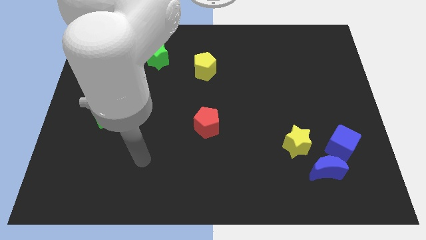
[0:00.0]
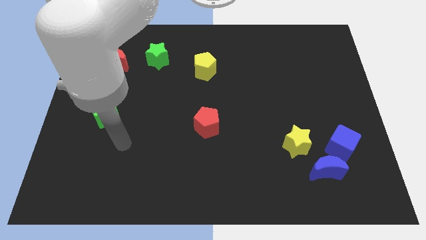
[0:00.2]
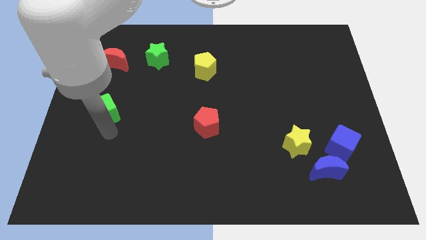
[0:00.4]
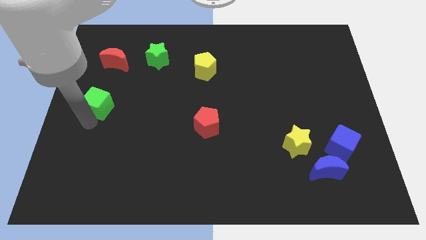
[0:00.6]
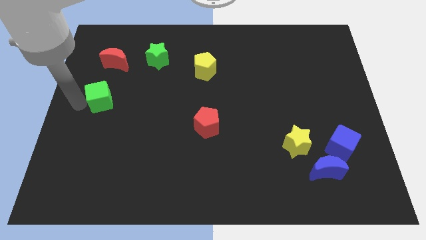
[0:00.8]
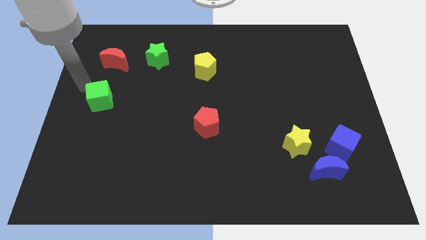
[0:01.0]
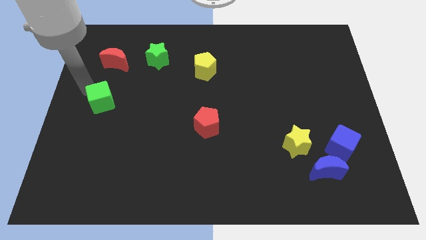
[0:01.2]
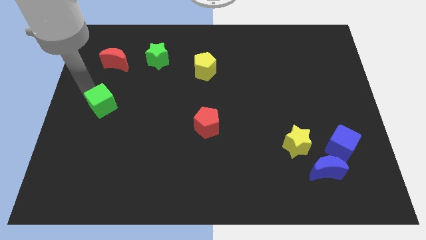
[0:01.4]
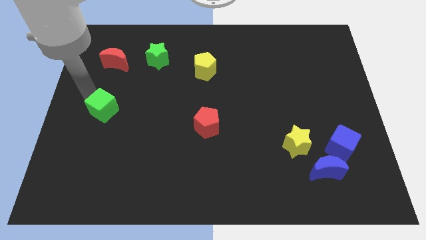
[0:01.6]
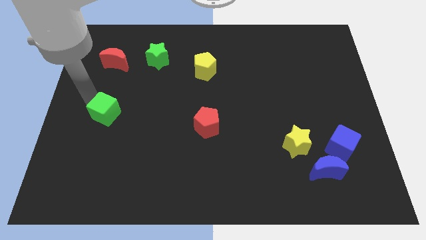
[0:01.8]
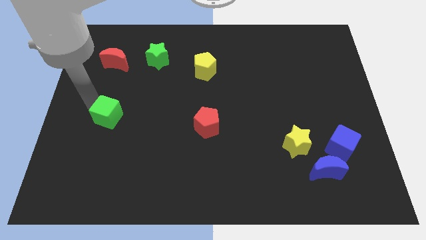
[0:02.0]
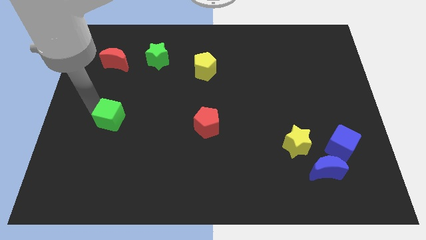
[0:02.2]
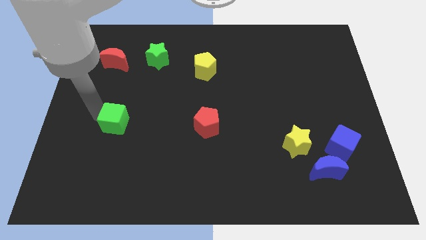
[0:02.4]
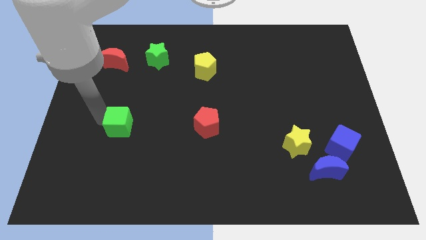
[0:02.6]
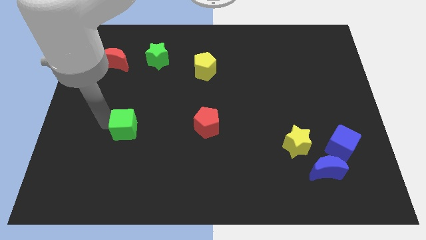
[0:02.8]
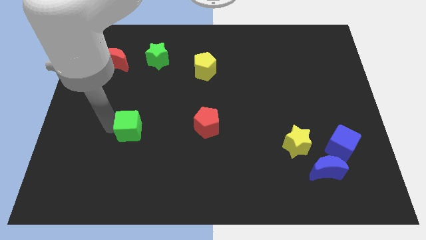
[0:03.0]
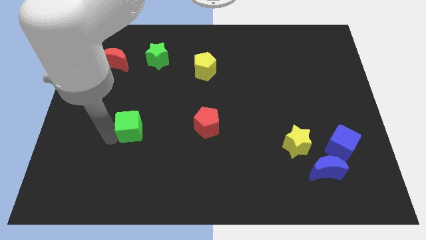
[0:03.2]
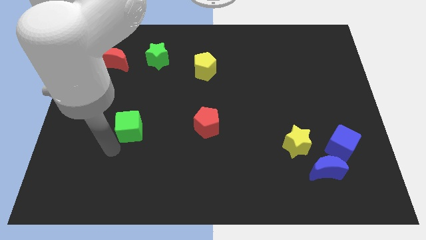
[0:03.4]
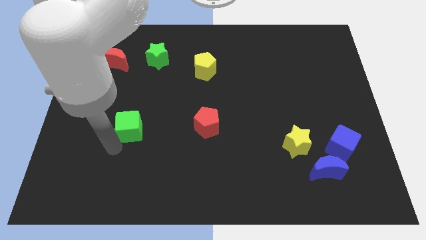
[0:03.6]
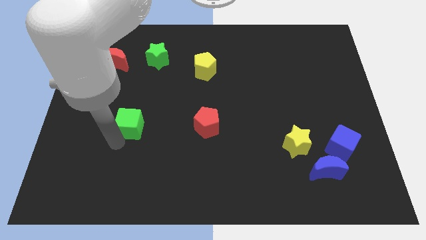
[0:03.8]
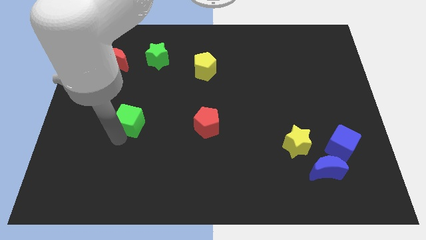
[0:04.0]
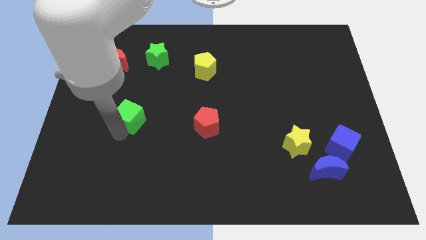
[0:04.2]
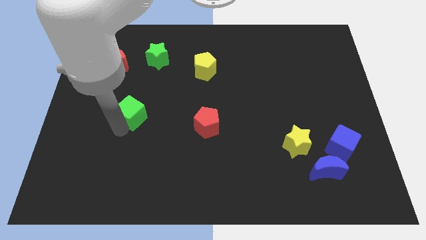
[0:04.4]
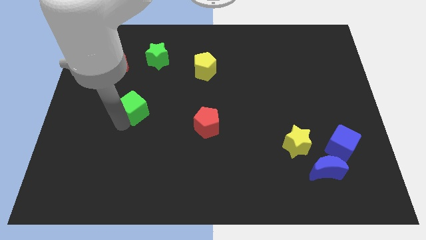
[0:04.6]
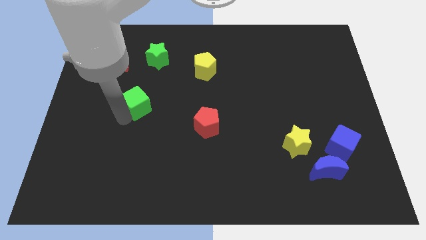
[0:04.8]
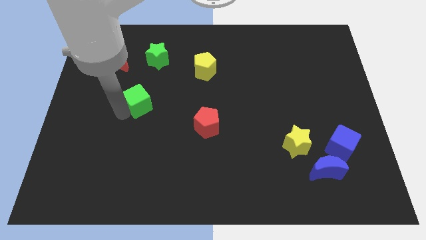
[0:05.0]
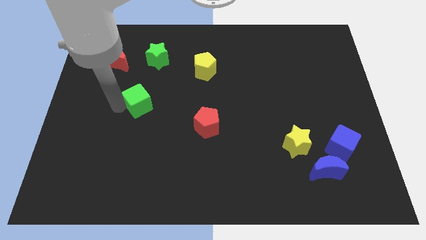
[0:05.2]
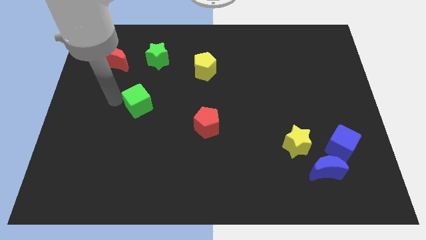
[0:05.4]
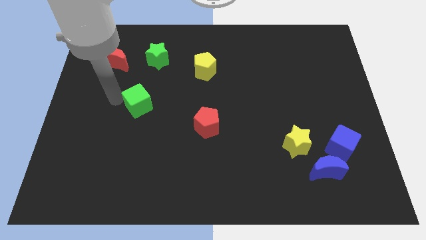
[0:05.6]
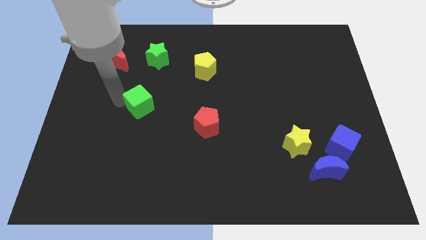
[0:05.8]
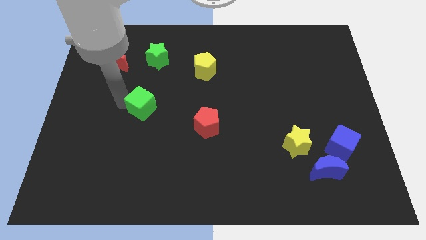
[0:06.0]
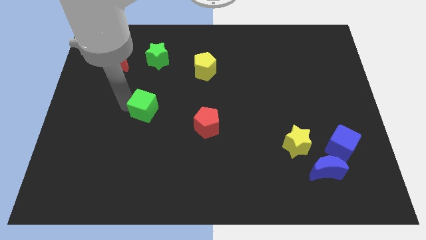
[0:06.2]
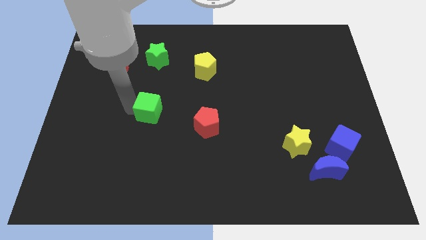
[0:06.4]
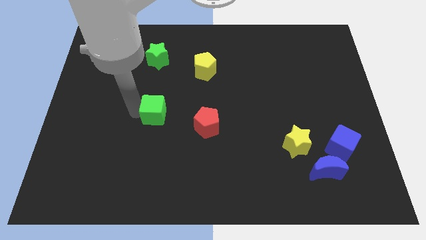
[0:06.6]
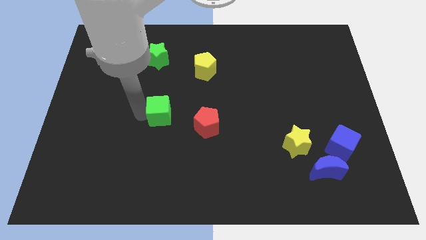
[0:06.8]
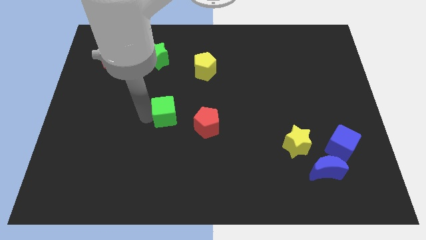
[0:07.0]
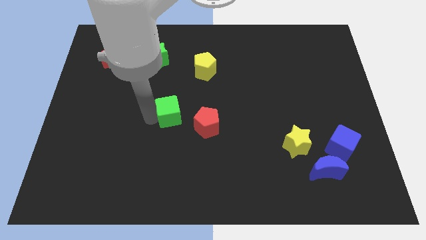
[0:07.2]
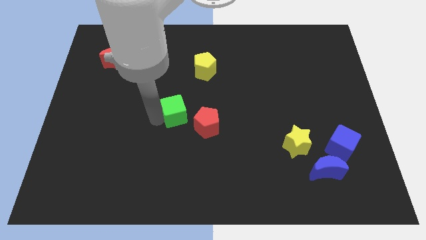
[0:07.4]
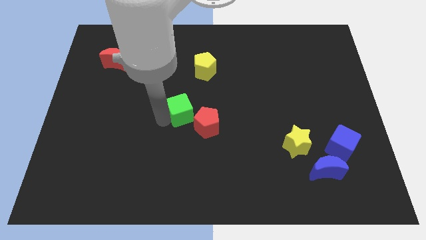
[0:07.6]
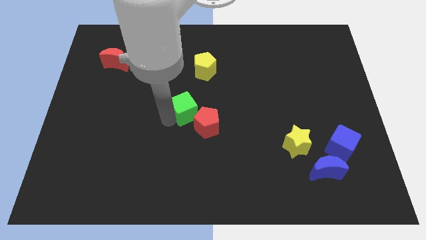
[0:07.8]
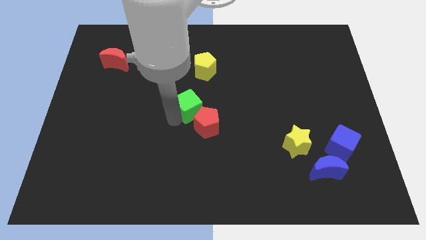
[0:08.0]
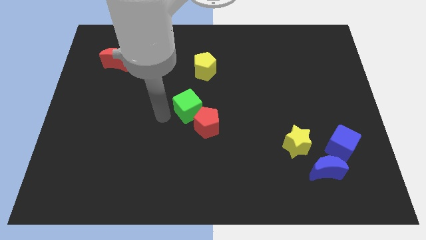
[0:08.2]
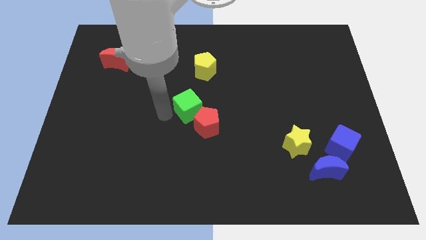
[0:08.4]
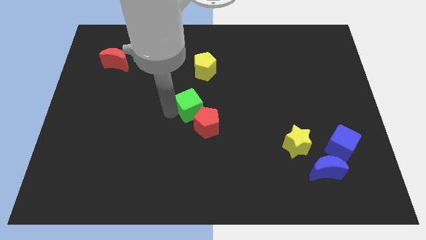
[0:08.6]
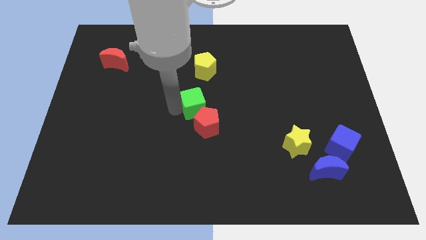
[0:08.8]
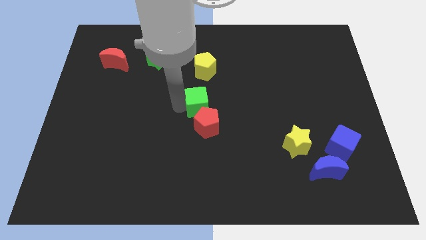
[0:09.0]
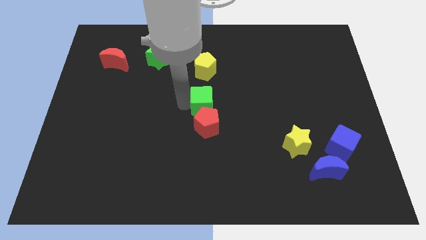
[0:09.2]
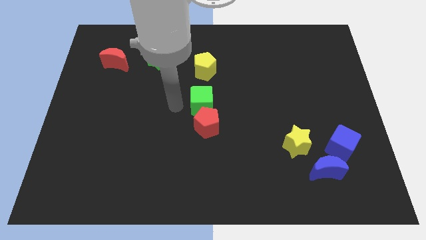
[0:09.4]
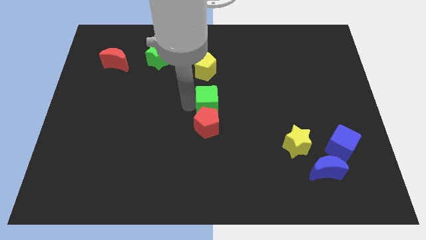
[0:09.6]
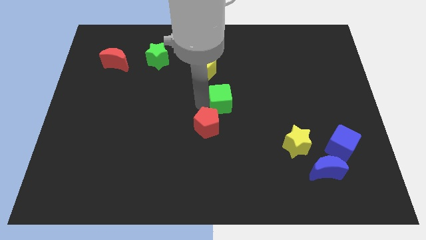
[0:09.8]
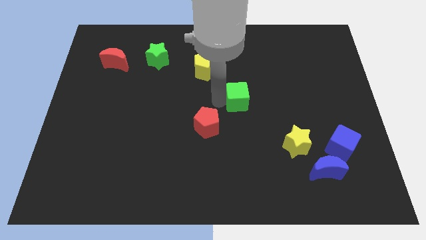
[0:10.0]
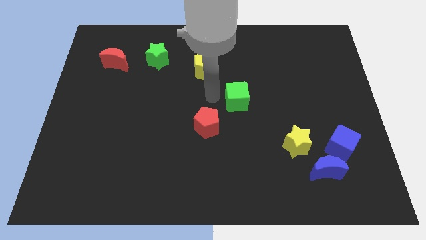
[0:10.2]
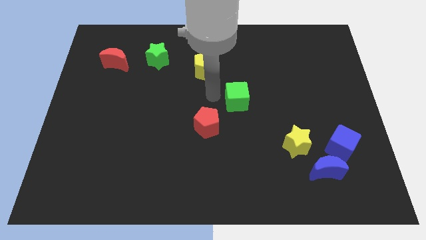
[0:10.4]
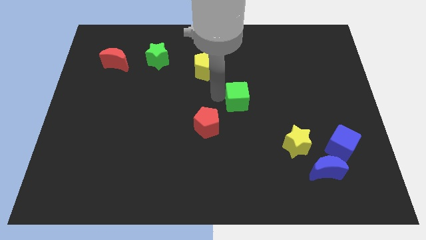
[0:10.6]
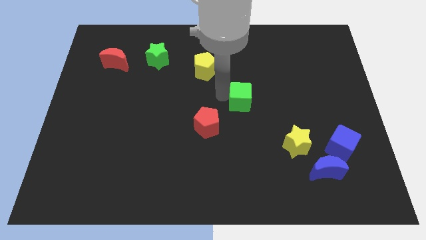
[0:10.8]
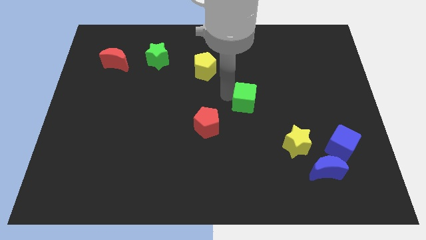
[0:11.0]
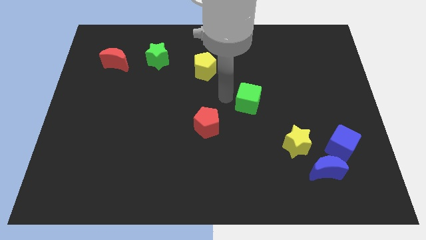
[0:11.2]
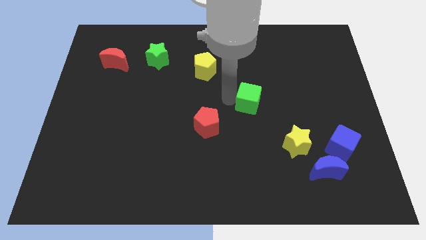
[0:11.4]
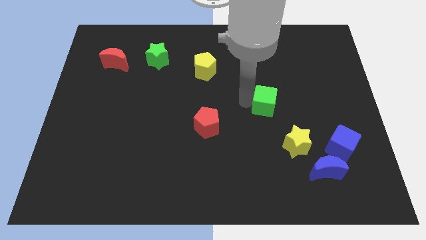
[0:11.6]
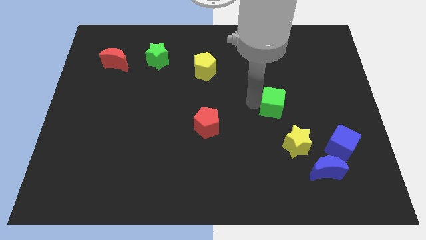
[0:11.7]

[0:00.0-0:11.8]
slide the green cube to the top side of the yellow star

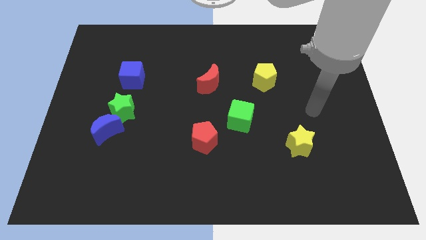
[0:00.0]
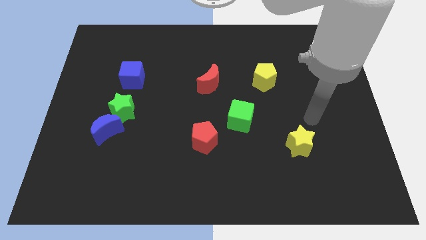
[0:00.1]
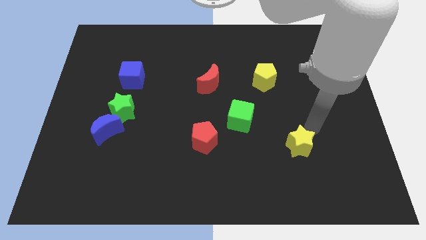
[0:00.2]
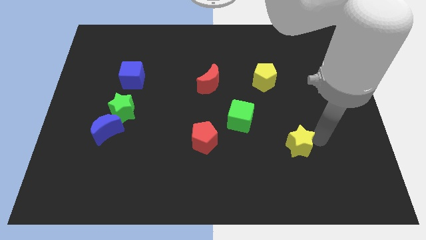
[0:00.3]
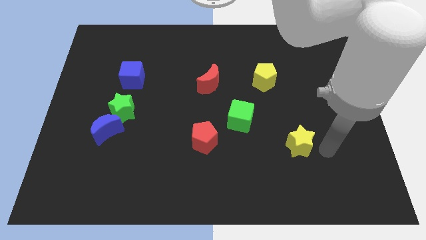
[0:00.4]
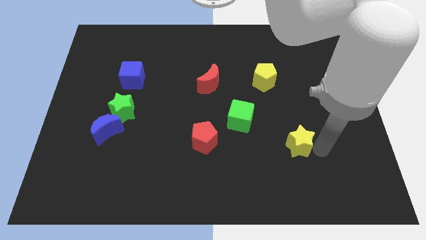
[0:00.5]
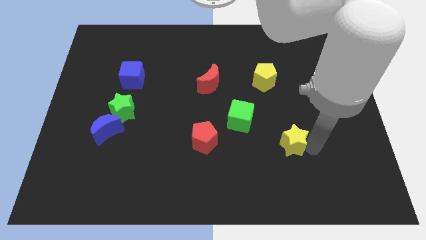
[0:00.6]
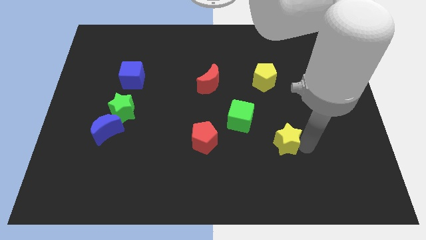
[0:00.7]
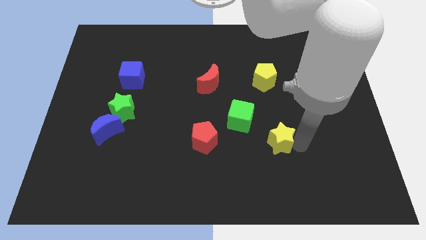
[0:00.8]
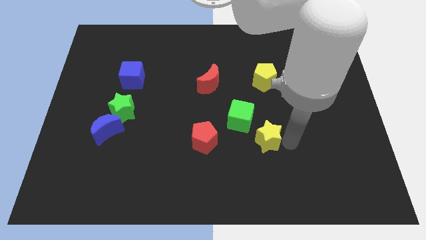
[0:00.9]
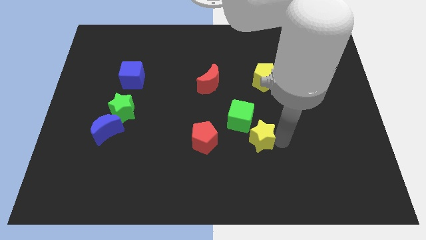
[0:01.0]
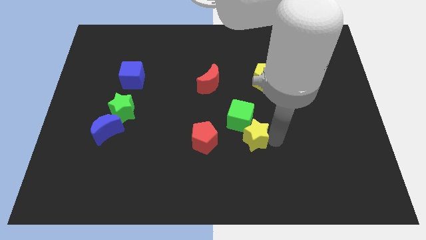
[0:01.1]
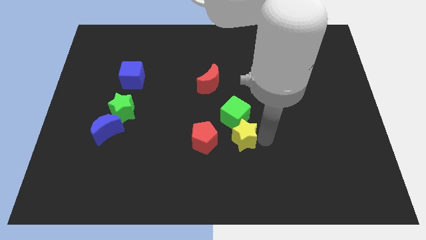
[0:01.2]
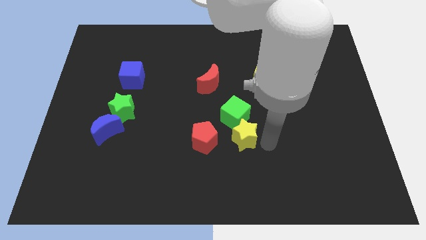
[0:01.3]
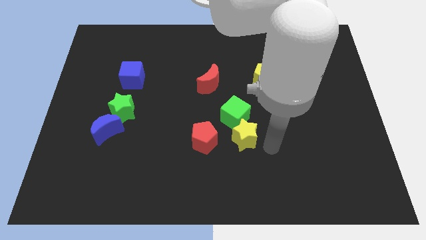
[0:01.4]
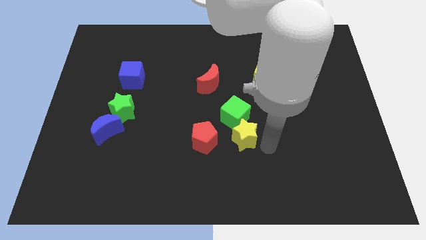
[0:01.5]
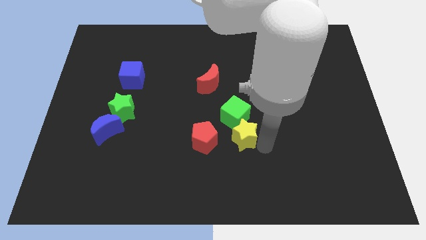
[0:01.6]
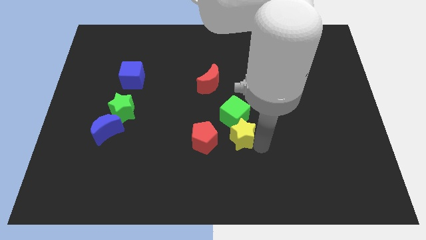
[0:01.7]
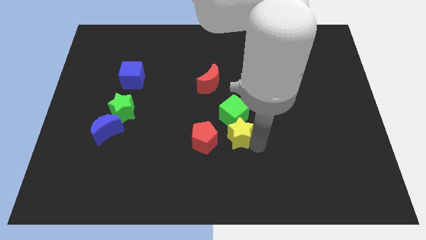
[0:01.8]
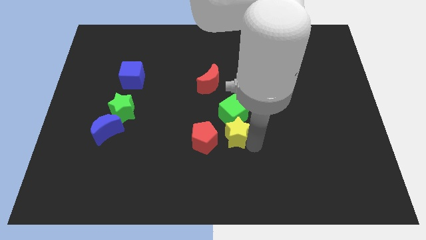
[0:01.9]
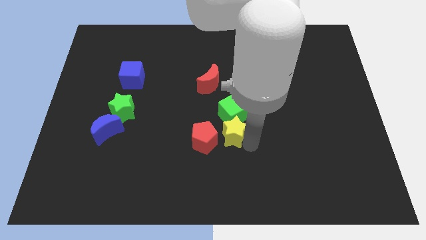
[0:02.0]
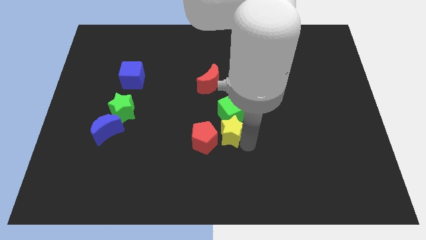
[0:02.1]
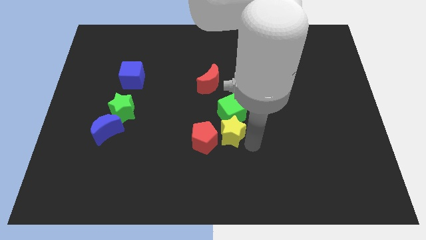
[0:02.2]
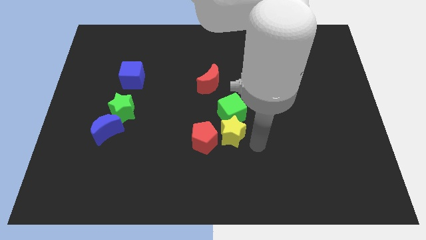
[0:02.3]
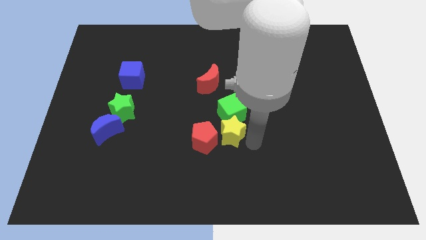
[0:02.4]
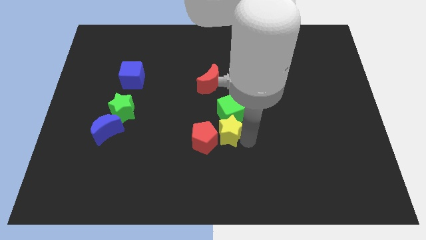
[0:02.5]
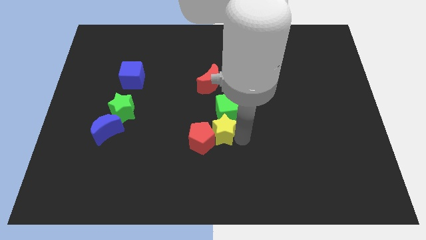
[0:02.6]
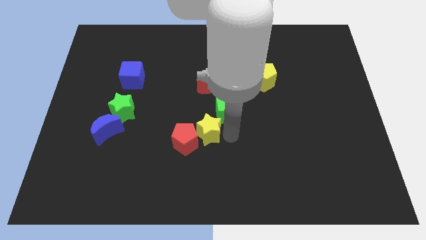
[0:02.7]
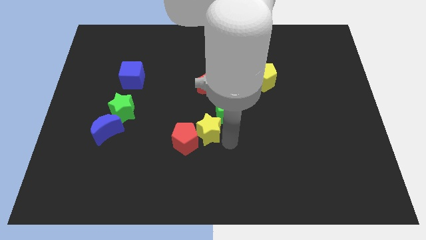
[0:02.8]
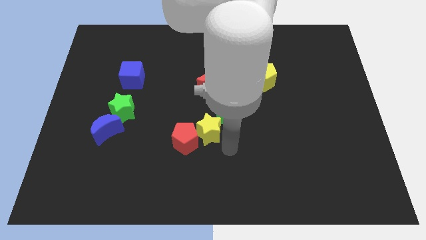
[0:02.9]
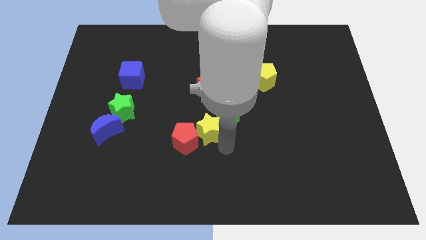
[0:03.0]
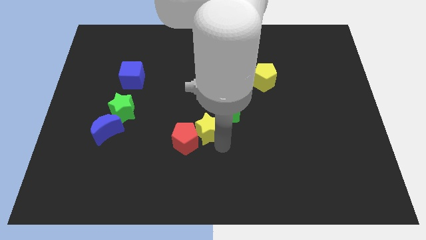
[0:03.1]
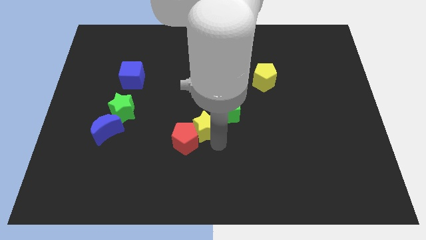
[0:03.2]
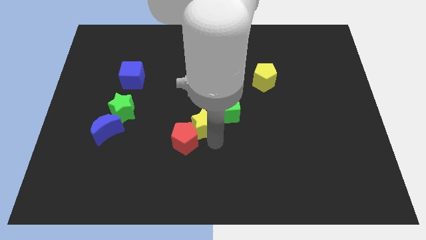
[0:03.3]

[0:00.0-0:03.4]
put the yellow star to the left of the green cube
